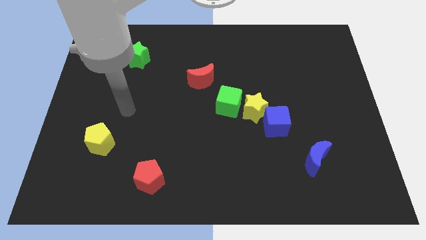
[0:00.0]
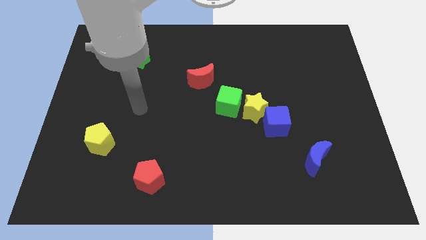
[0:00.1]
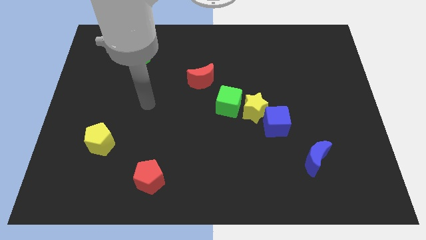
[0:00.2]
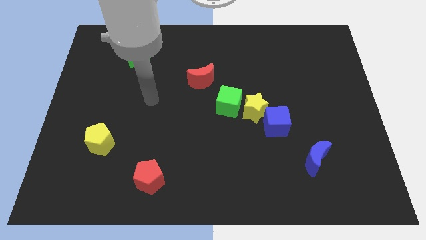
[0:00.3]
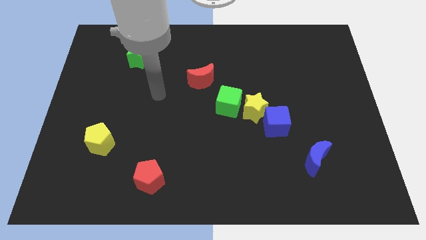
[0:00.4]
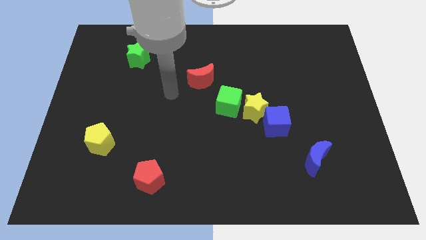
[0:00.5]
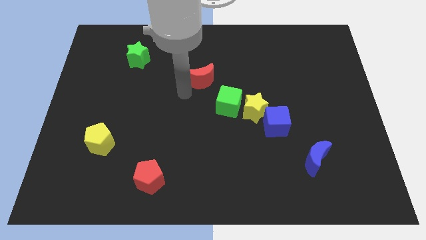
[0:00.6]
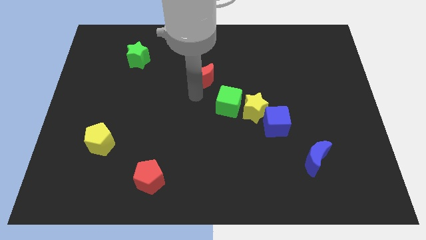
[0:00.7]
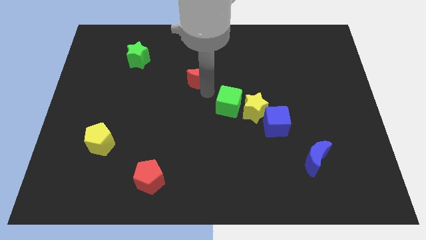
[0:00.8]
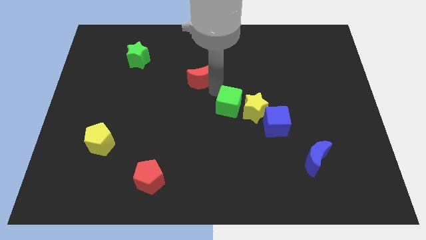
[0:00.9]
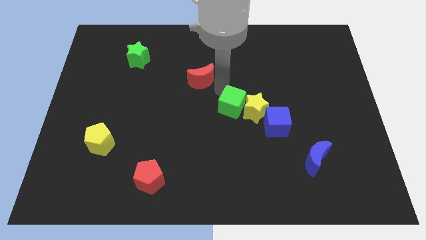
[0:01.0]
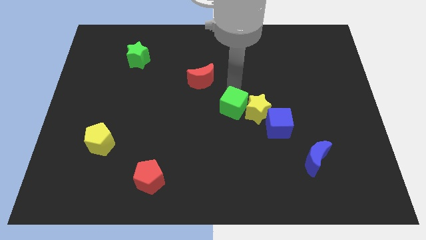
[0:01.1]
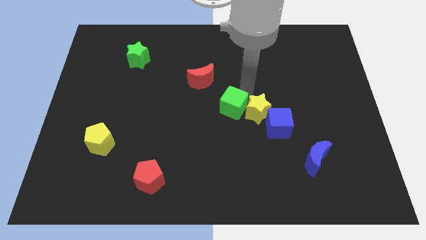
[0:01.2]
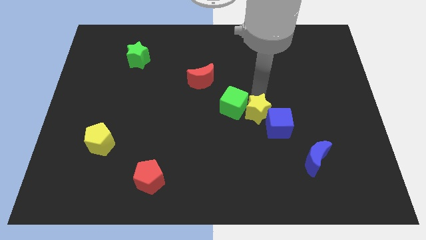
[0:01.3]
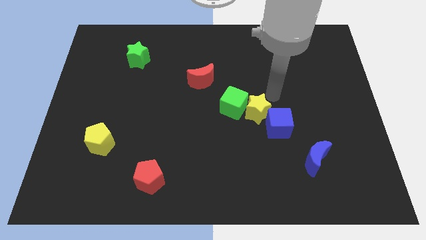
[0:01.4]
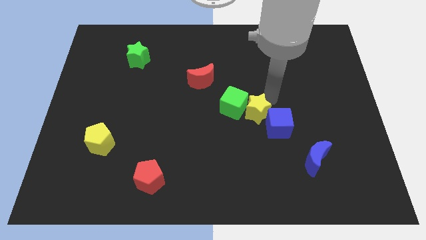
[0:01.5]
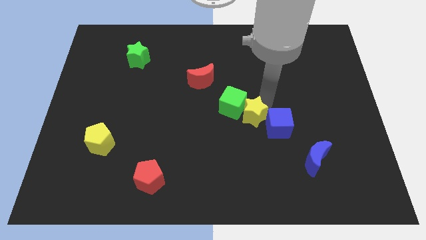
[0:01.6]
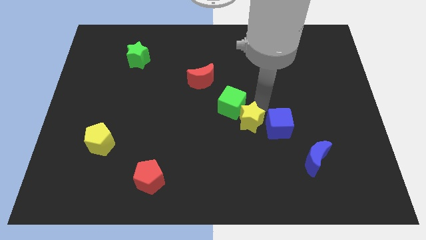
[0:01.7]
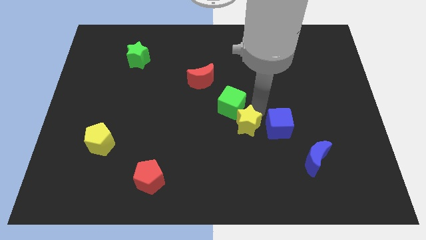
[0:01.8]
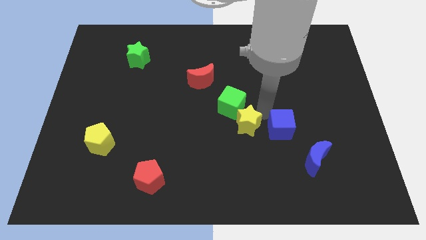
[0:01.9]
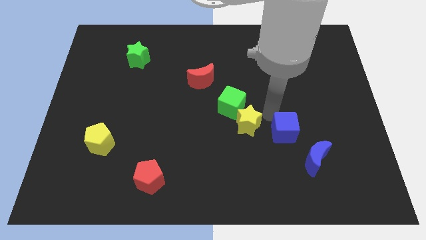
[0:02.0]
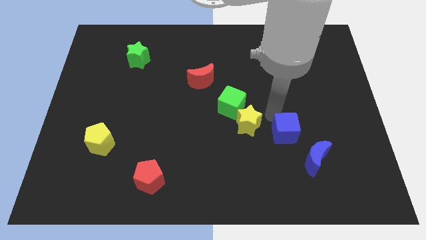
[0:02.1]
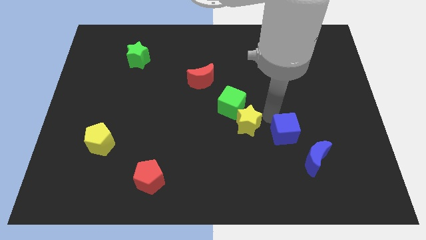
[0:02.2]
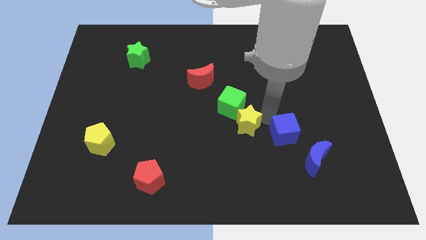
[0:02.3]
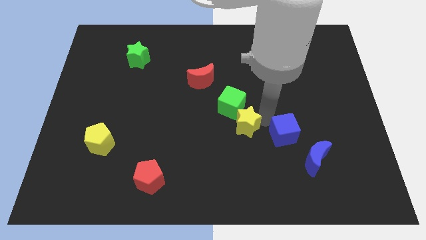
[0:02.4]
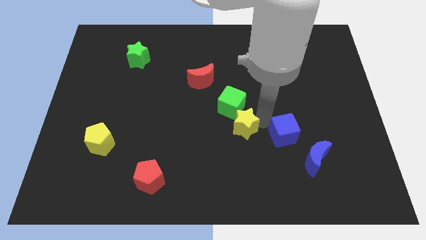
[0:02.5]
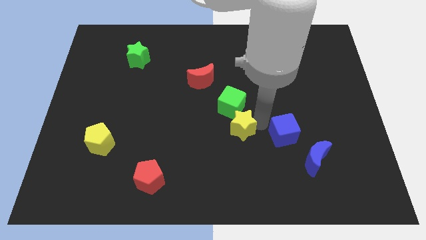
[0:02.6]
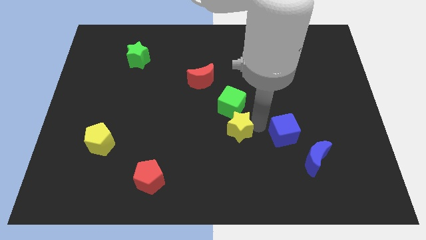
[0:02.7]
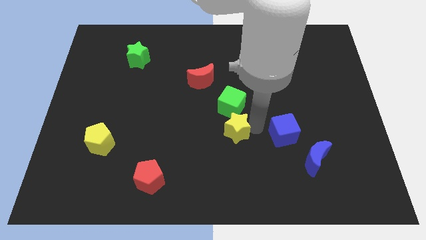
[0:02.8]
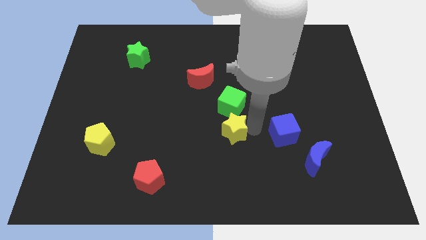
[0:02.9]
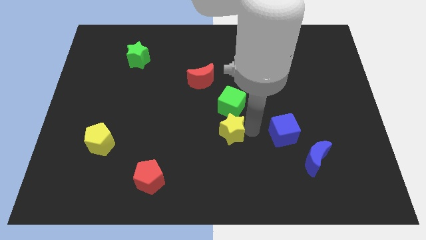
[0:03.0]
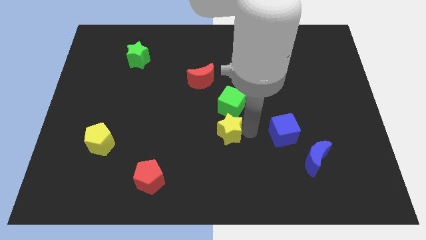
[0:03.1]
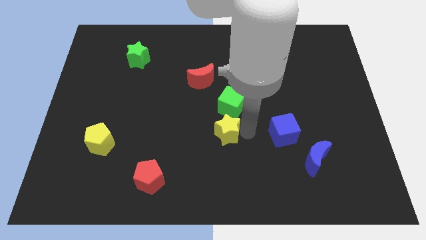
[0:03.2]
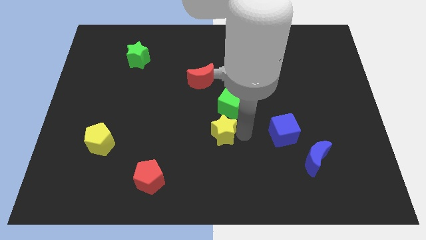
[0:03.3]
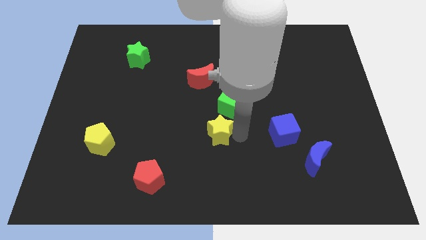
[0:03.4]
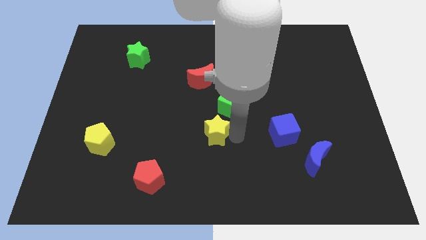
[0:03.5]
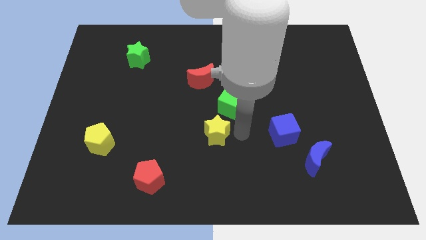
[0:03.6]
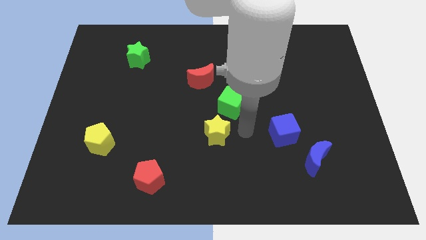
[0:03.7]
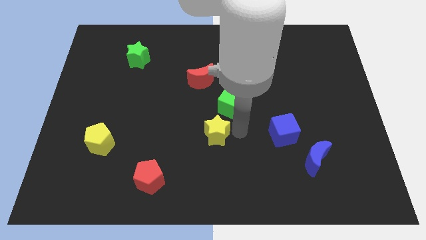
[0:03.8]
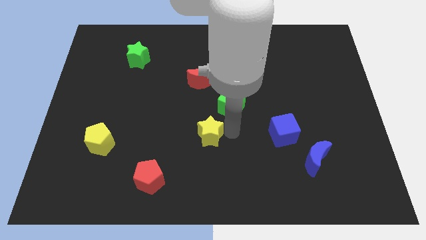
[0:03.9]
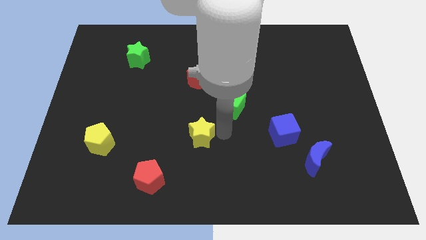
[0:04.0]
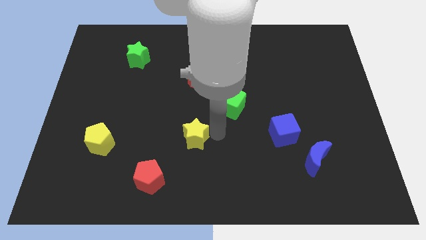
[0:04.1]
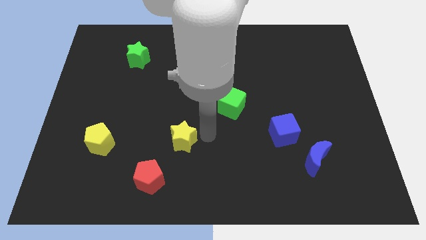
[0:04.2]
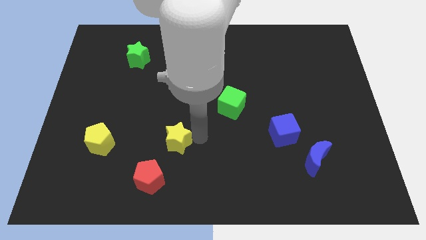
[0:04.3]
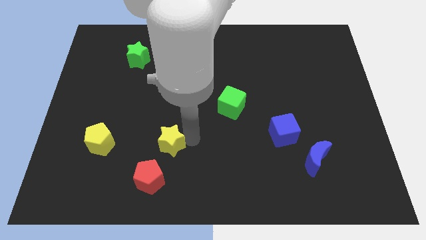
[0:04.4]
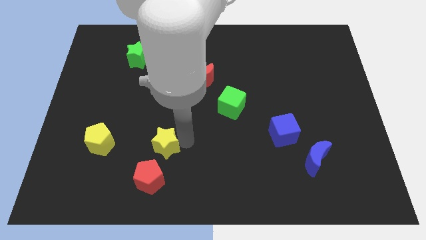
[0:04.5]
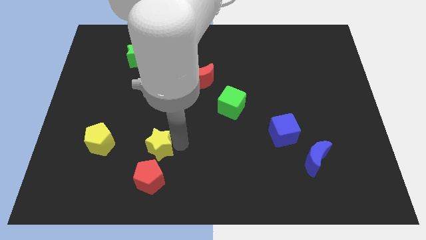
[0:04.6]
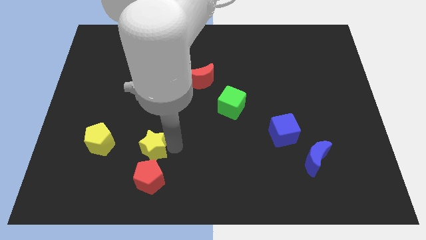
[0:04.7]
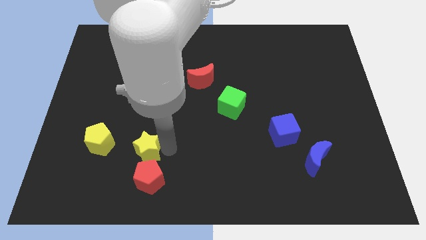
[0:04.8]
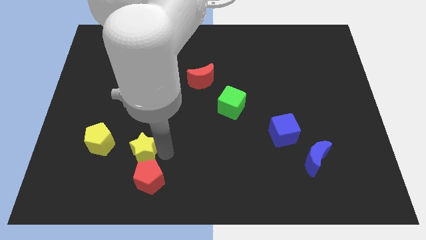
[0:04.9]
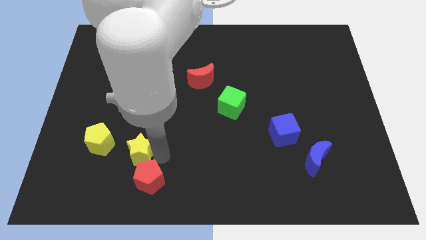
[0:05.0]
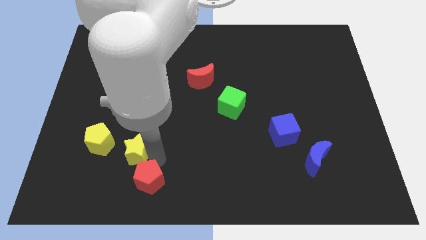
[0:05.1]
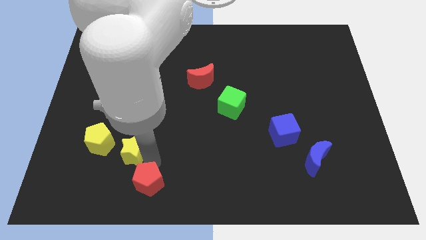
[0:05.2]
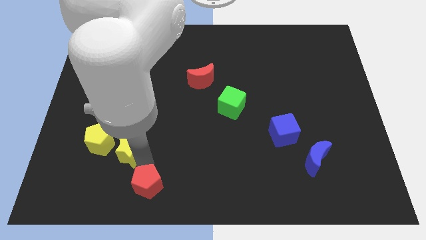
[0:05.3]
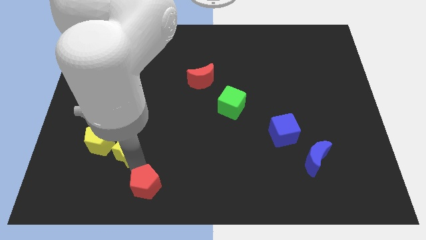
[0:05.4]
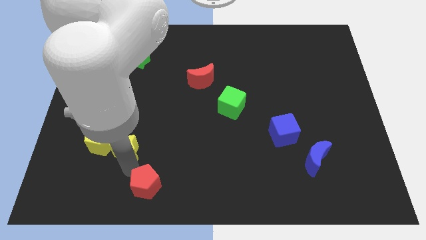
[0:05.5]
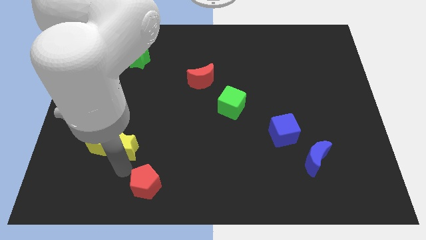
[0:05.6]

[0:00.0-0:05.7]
put the yellow star towards the yellow pentagon

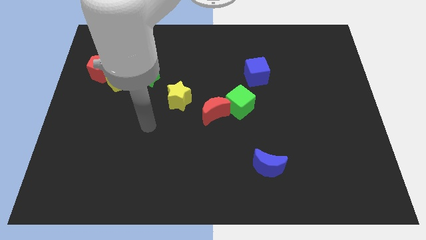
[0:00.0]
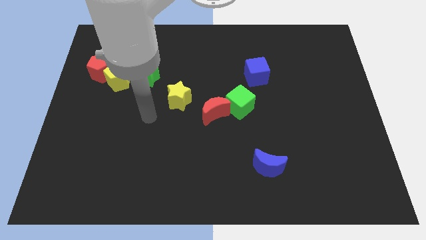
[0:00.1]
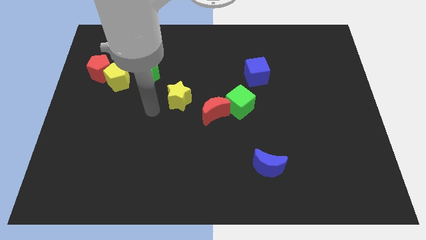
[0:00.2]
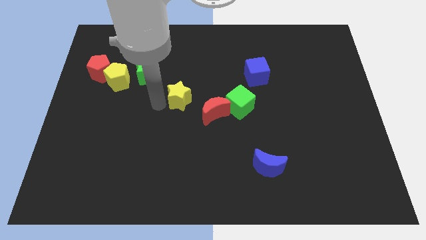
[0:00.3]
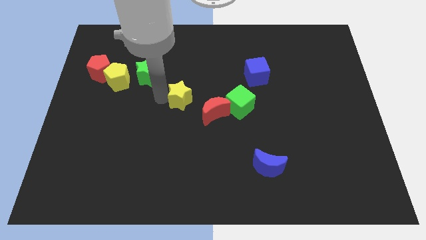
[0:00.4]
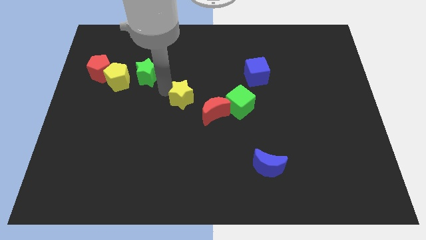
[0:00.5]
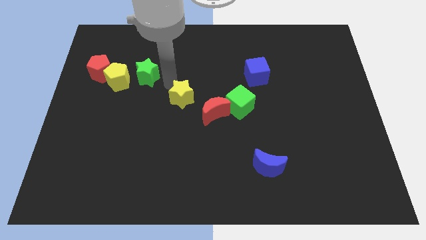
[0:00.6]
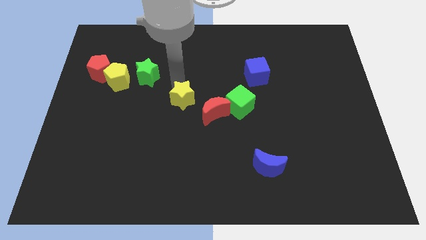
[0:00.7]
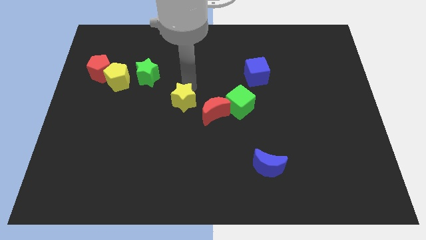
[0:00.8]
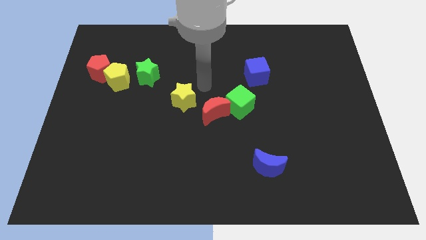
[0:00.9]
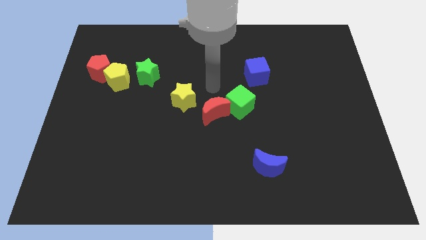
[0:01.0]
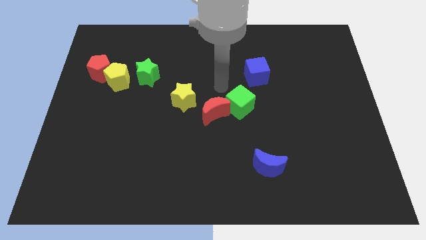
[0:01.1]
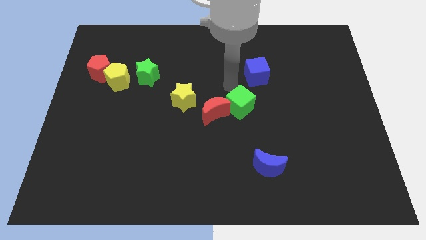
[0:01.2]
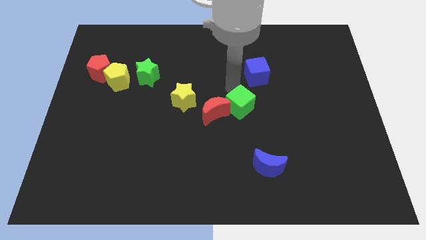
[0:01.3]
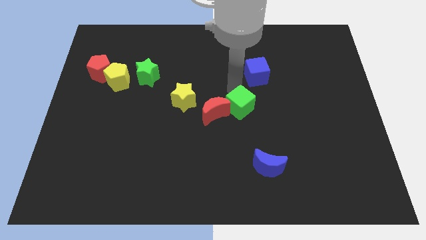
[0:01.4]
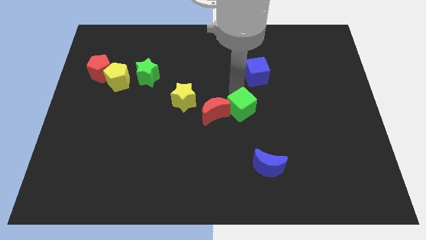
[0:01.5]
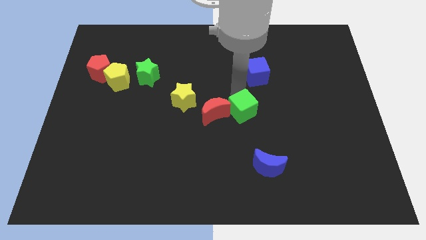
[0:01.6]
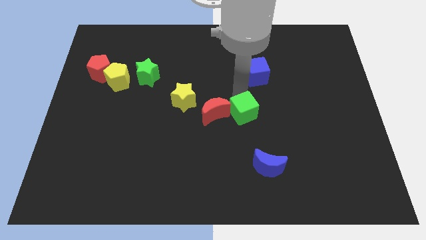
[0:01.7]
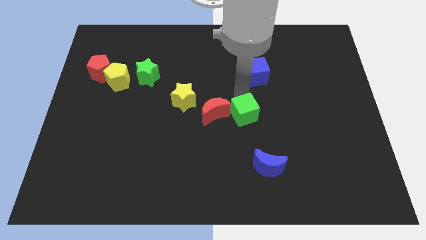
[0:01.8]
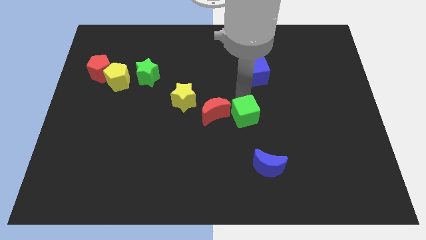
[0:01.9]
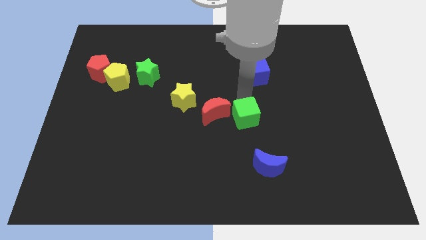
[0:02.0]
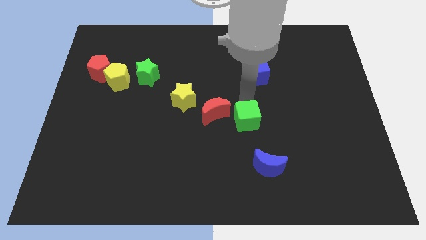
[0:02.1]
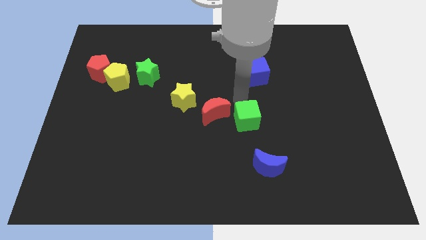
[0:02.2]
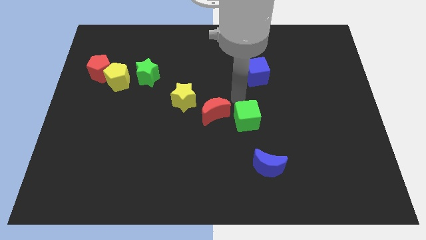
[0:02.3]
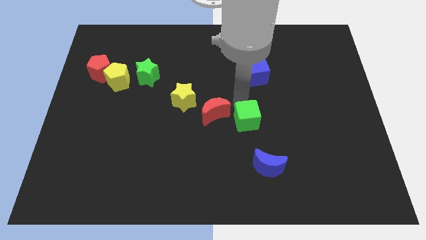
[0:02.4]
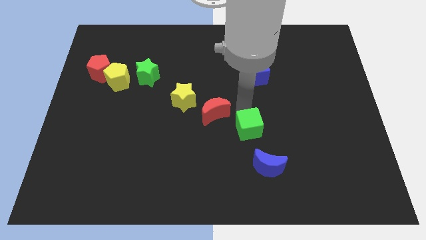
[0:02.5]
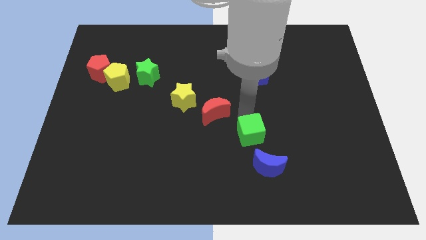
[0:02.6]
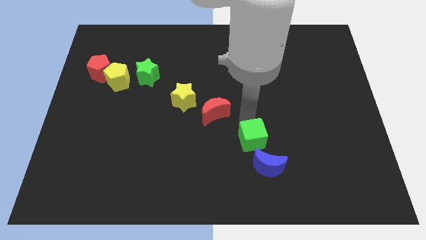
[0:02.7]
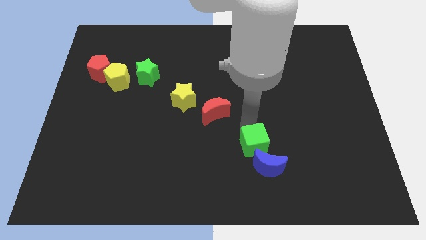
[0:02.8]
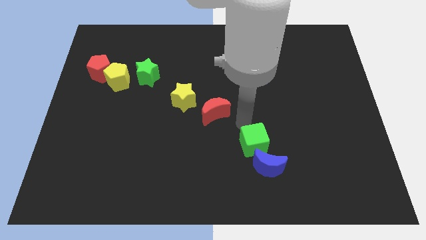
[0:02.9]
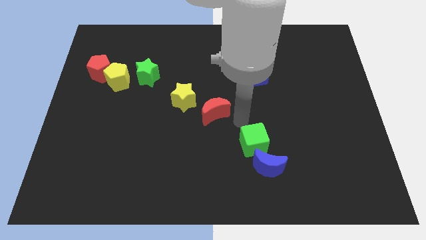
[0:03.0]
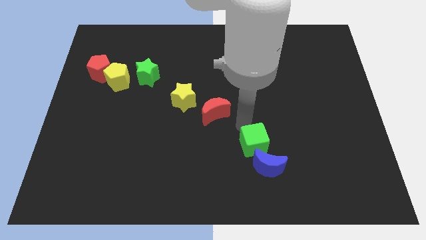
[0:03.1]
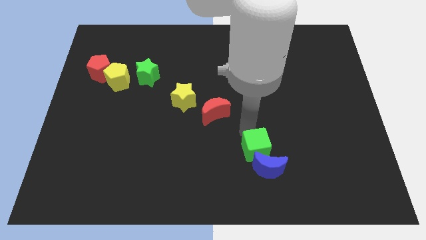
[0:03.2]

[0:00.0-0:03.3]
slide the green cube close to the blue moon
